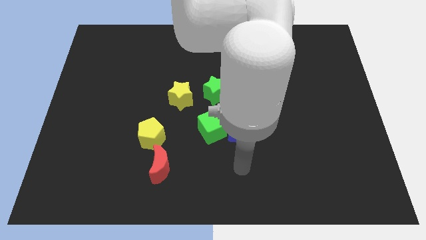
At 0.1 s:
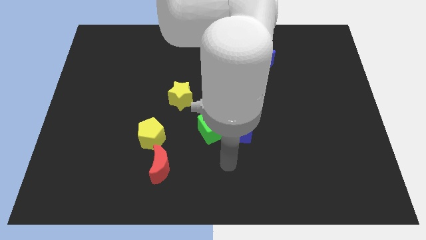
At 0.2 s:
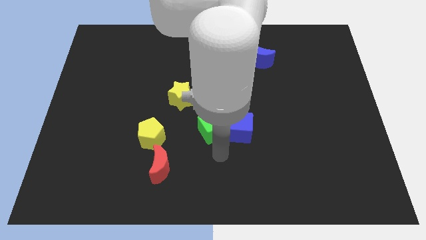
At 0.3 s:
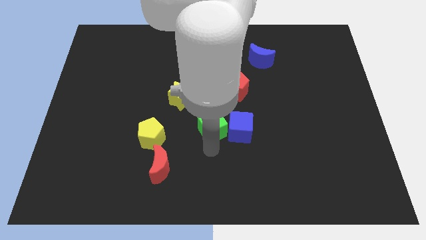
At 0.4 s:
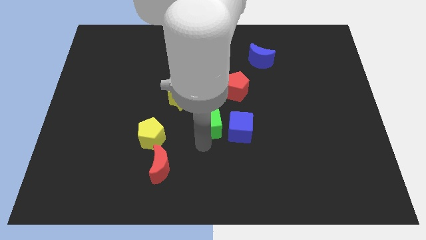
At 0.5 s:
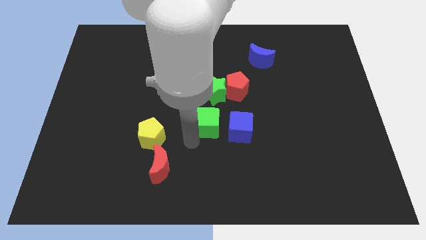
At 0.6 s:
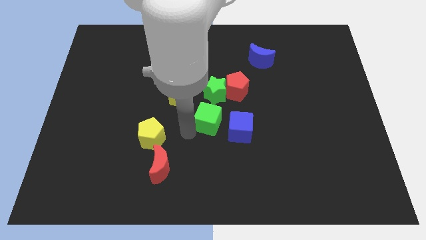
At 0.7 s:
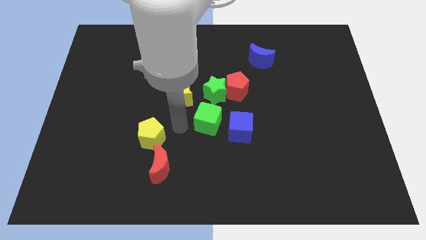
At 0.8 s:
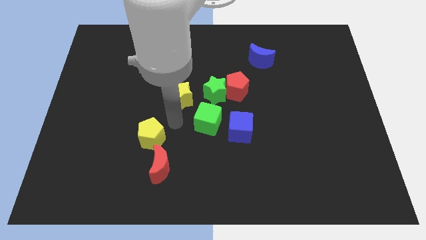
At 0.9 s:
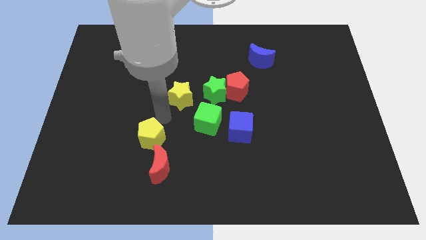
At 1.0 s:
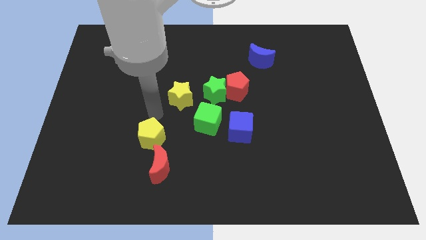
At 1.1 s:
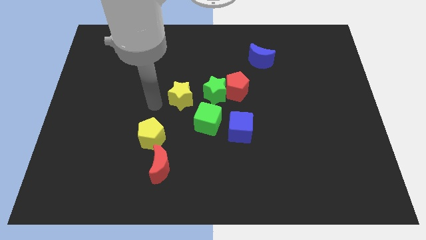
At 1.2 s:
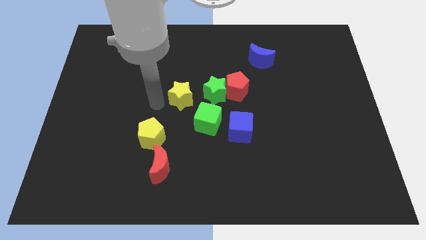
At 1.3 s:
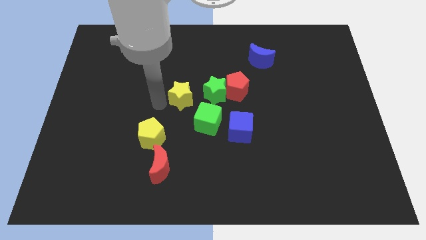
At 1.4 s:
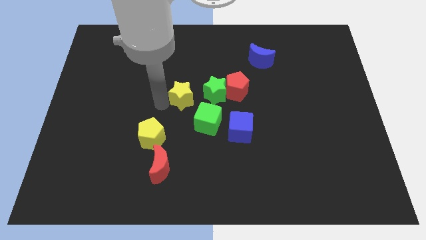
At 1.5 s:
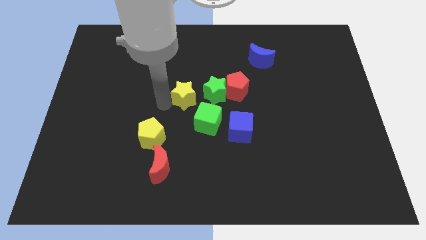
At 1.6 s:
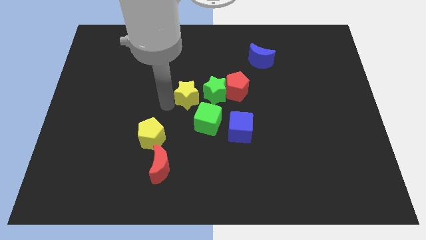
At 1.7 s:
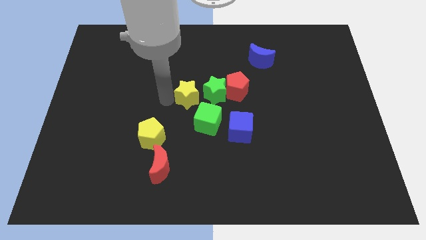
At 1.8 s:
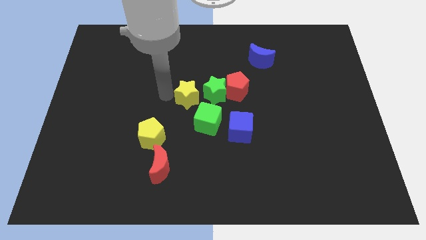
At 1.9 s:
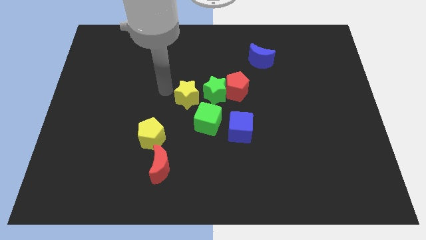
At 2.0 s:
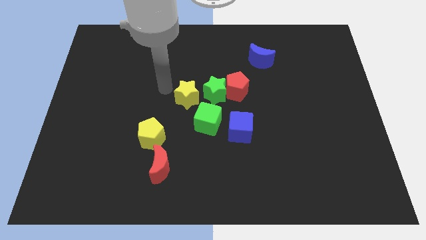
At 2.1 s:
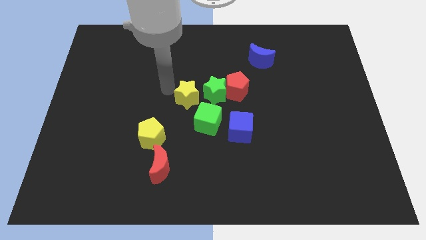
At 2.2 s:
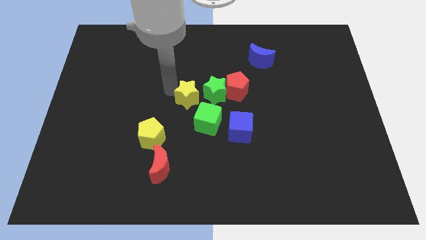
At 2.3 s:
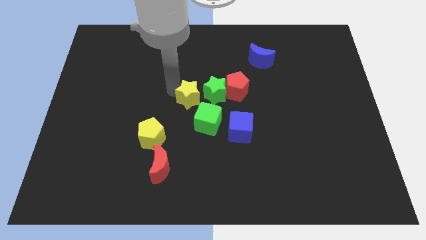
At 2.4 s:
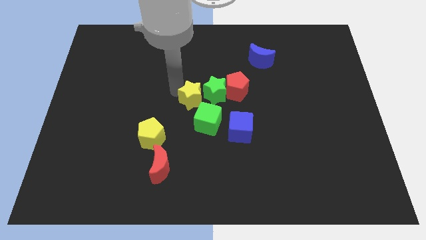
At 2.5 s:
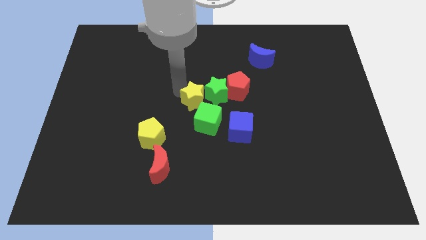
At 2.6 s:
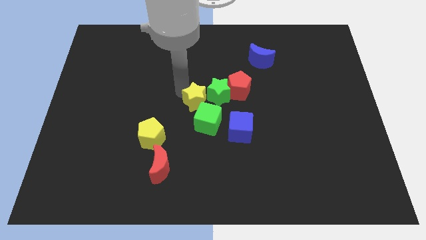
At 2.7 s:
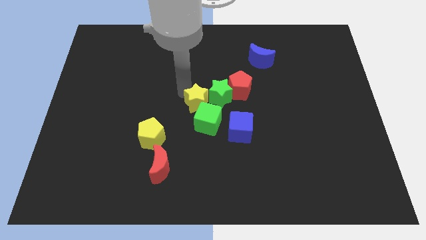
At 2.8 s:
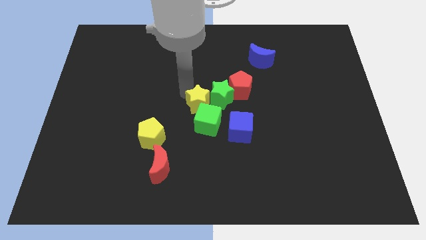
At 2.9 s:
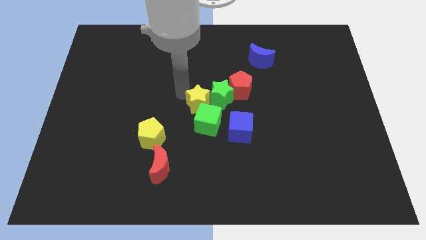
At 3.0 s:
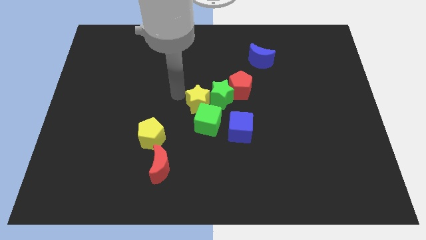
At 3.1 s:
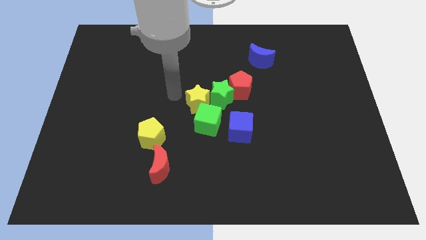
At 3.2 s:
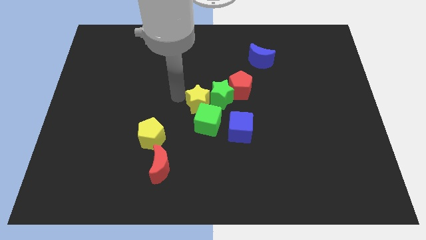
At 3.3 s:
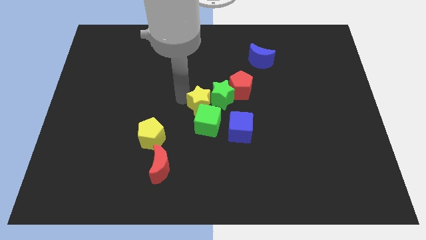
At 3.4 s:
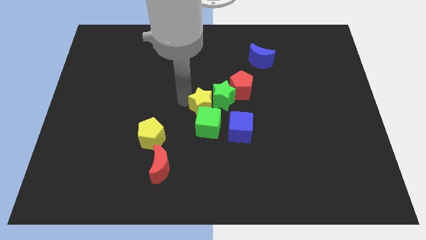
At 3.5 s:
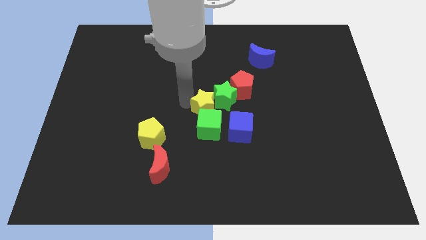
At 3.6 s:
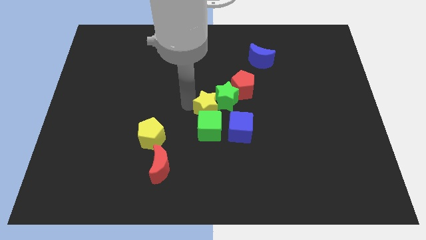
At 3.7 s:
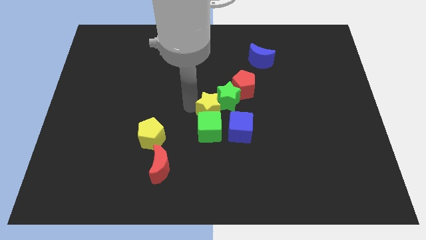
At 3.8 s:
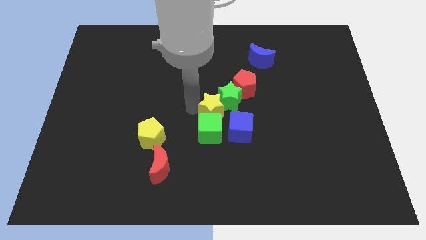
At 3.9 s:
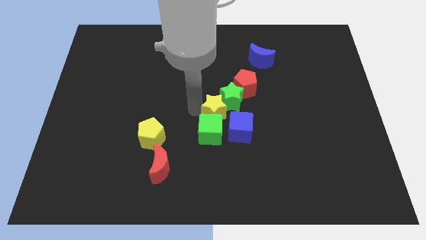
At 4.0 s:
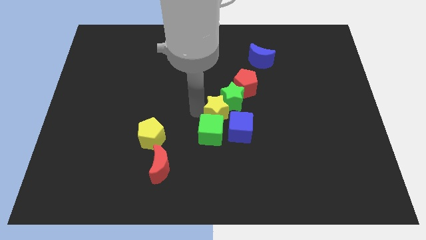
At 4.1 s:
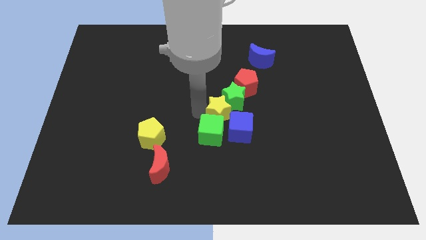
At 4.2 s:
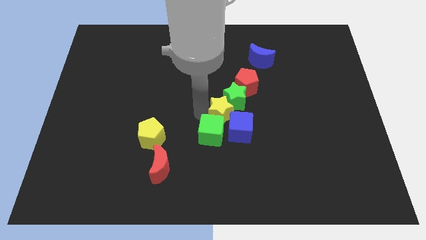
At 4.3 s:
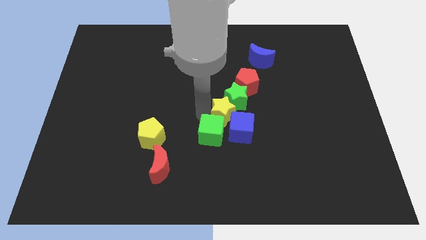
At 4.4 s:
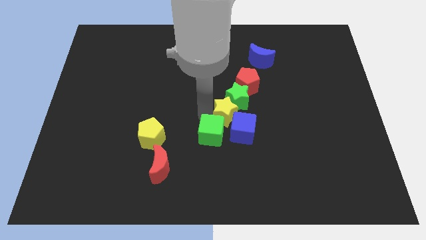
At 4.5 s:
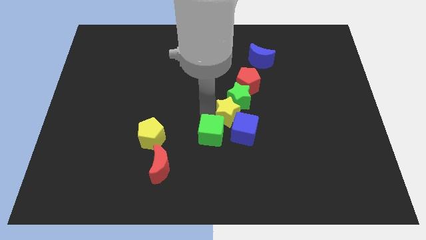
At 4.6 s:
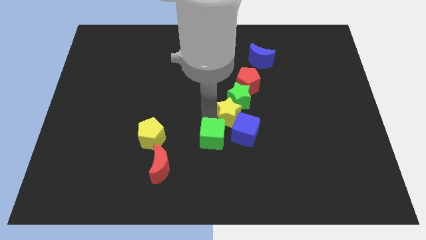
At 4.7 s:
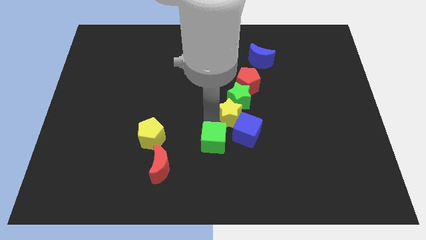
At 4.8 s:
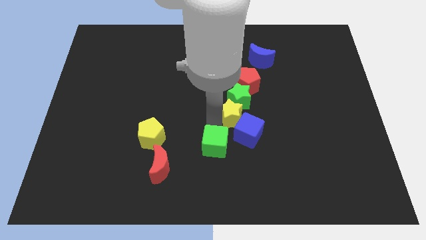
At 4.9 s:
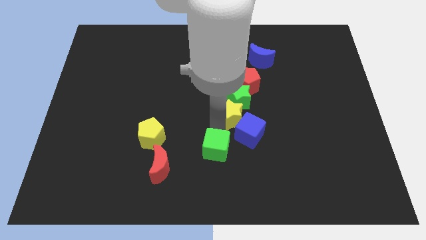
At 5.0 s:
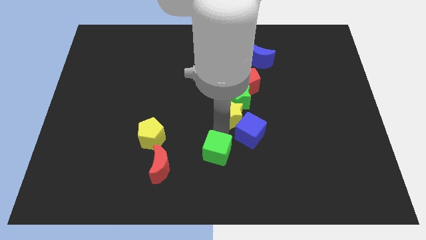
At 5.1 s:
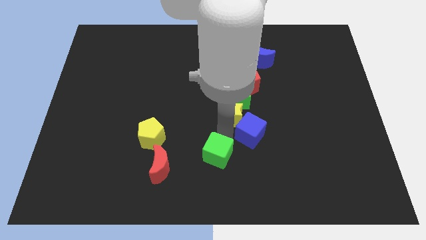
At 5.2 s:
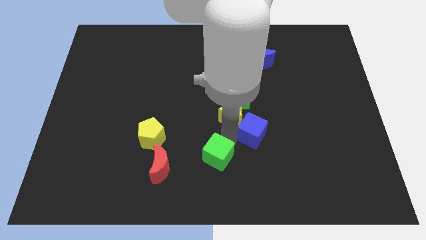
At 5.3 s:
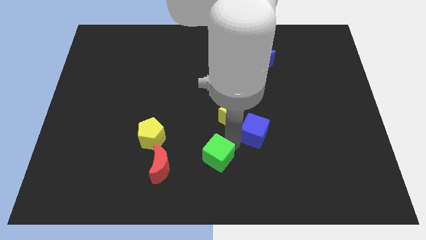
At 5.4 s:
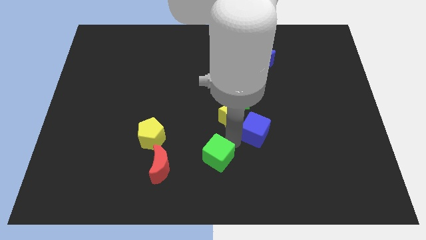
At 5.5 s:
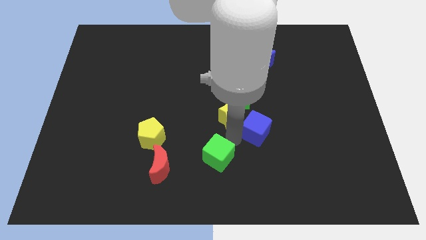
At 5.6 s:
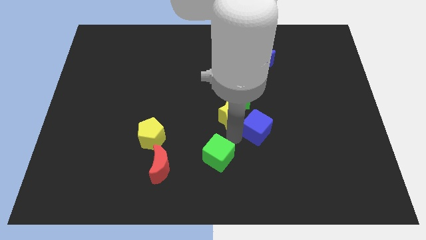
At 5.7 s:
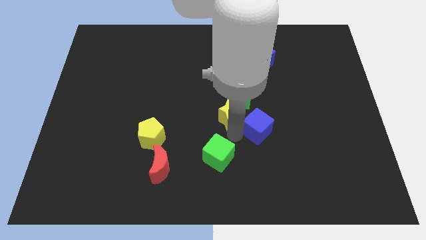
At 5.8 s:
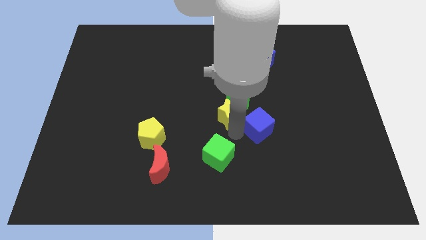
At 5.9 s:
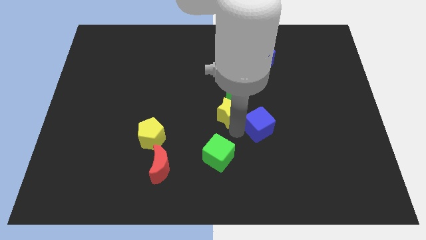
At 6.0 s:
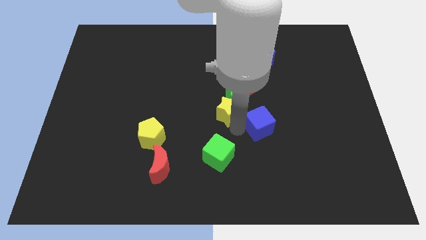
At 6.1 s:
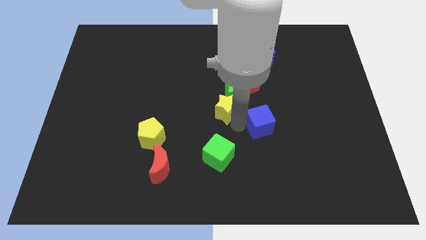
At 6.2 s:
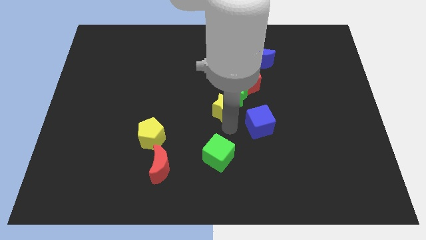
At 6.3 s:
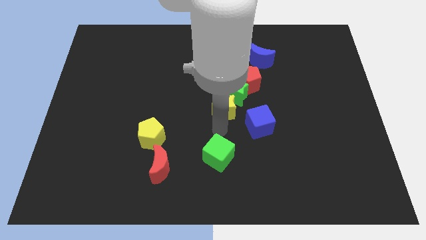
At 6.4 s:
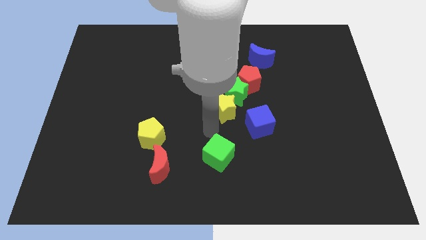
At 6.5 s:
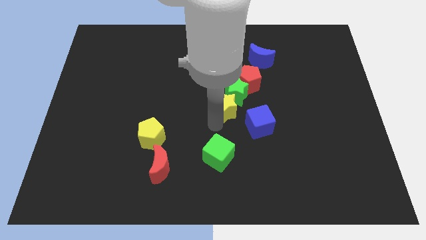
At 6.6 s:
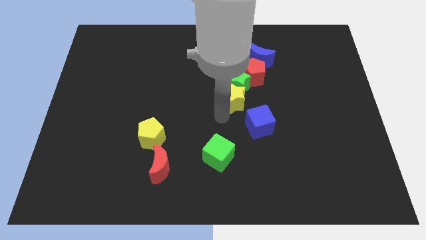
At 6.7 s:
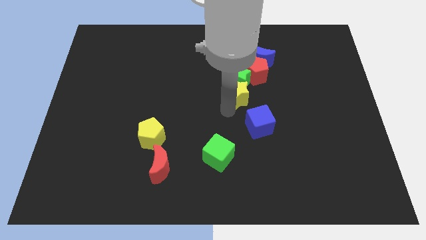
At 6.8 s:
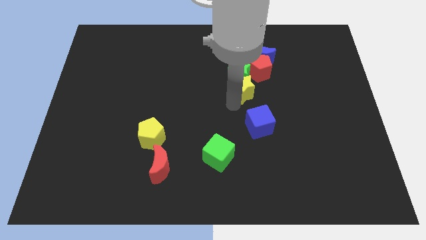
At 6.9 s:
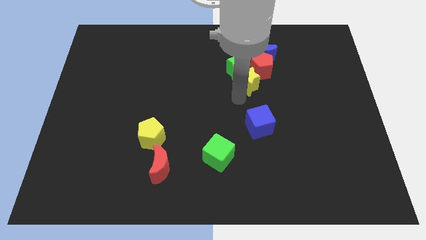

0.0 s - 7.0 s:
move the yellow star close to the red pentagon
